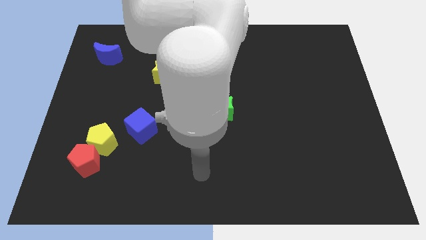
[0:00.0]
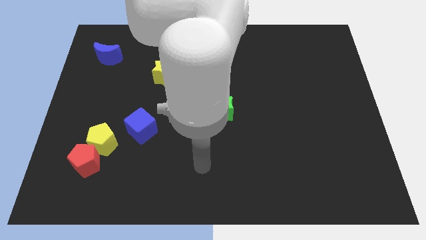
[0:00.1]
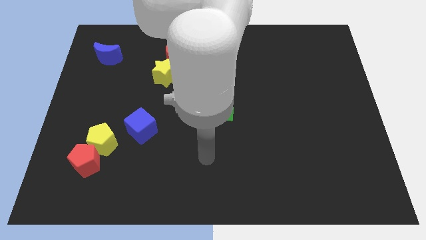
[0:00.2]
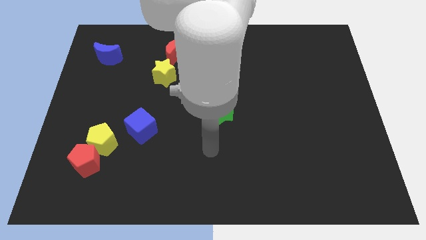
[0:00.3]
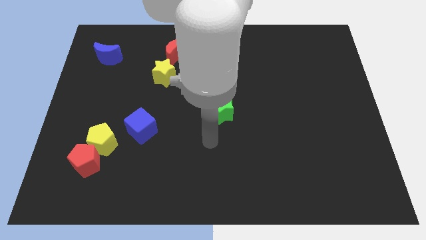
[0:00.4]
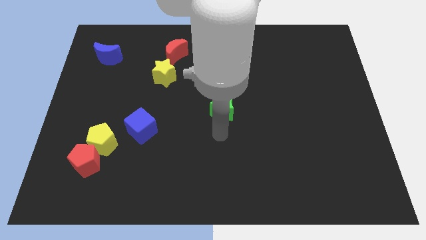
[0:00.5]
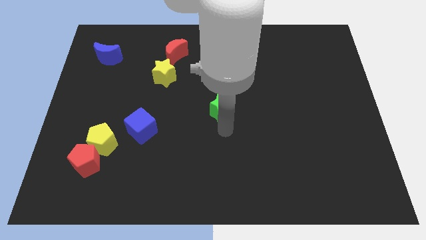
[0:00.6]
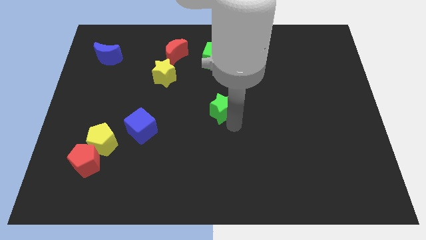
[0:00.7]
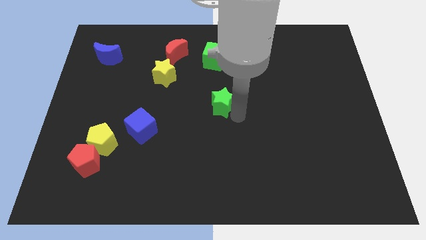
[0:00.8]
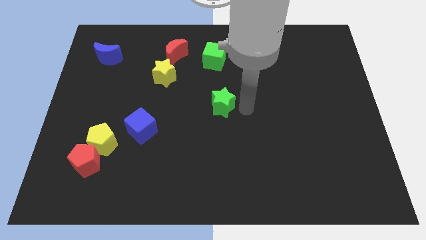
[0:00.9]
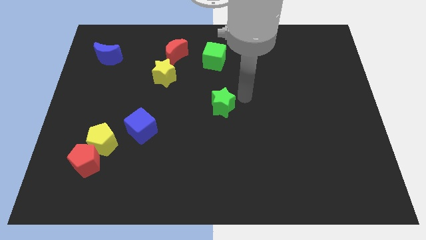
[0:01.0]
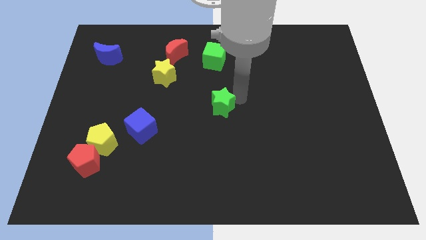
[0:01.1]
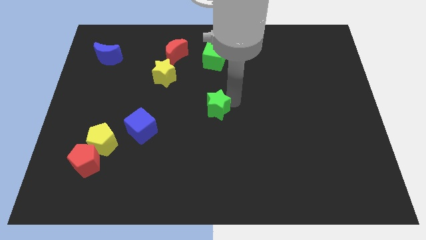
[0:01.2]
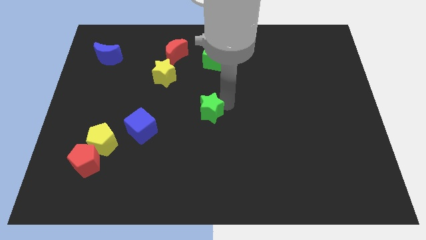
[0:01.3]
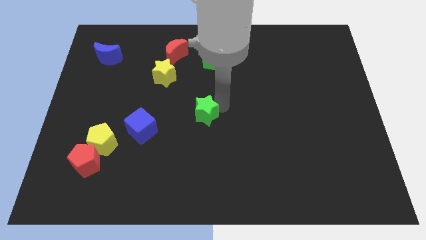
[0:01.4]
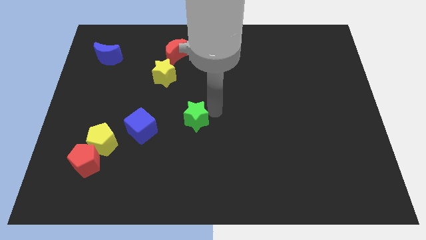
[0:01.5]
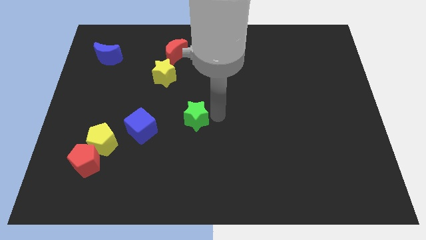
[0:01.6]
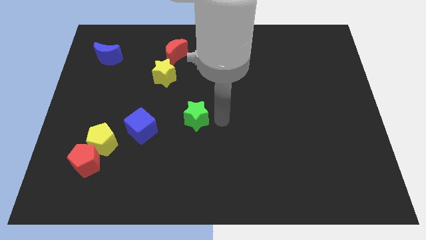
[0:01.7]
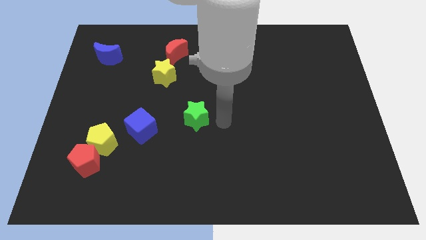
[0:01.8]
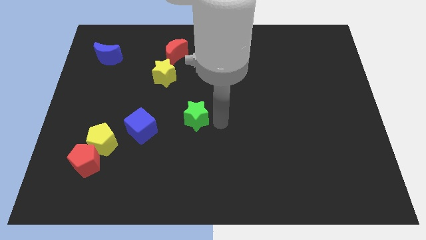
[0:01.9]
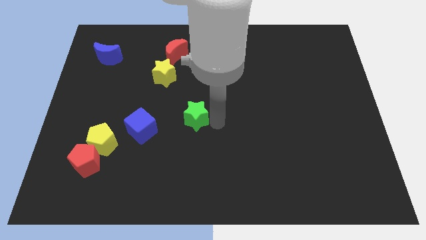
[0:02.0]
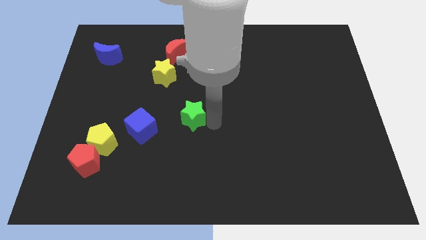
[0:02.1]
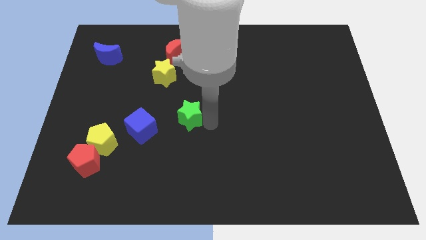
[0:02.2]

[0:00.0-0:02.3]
move the green star a bit to the left

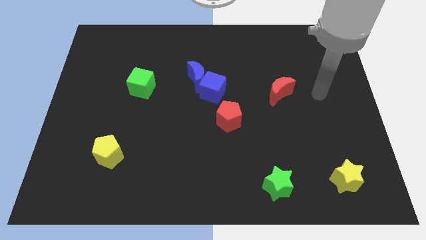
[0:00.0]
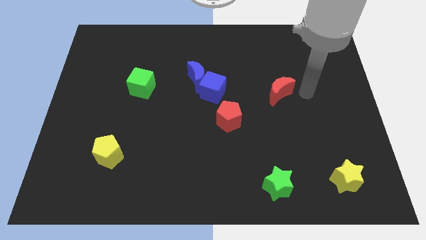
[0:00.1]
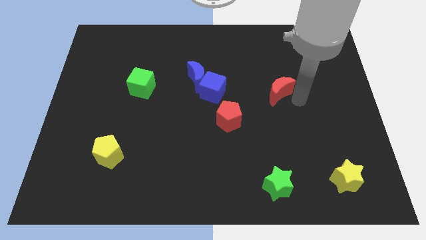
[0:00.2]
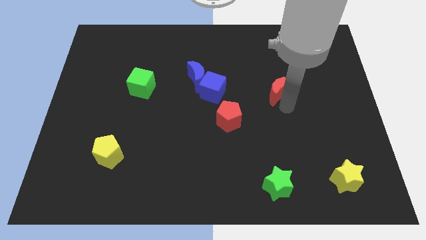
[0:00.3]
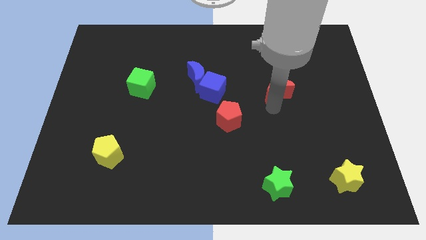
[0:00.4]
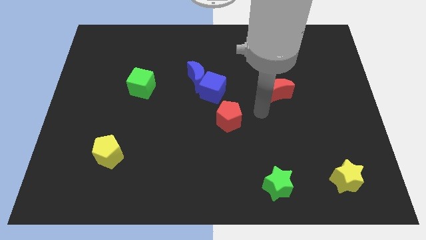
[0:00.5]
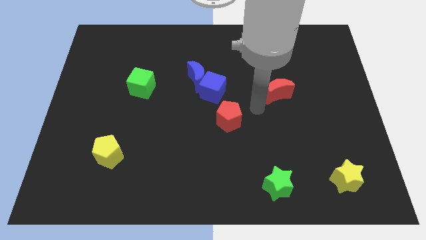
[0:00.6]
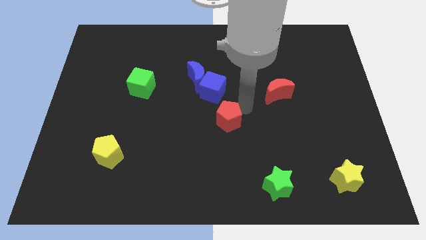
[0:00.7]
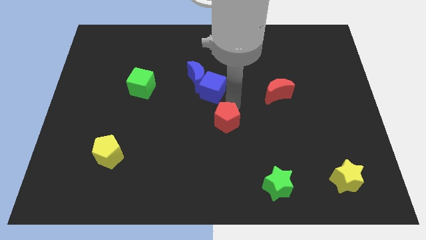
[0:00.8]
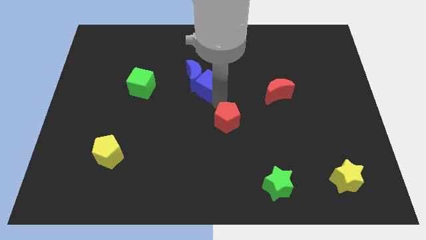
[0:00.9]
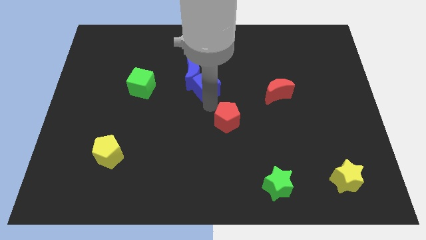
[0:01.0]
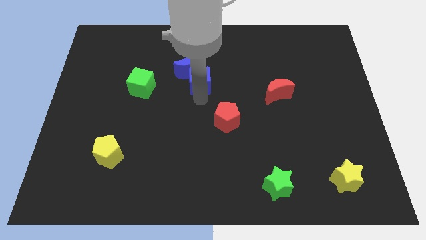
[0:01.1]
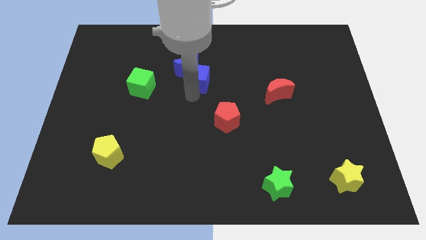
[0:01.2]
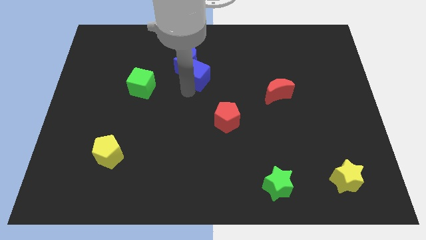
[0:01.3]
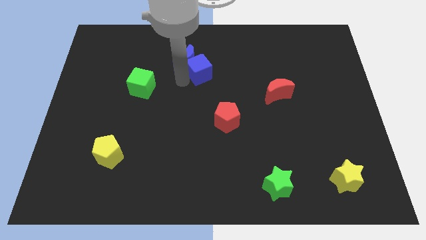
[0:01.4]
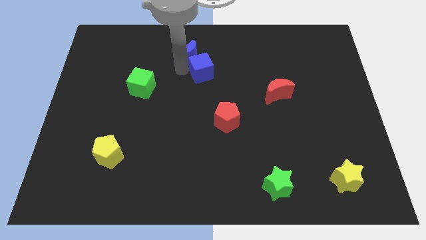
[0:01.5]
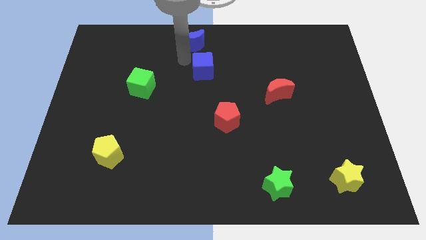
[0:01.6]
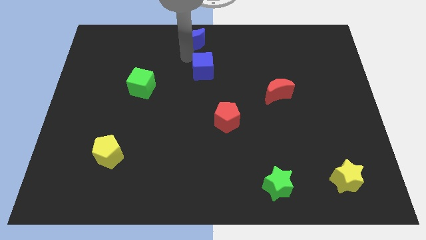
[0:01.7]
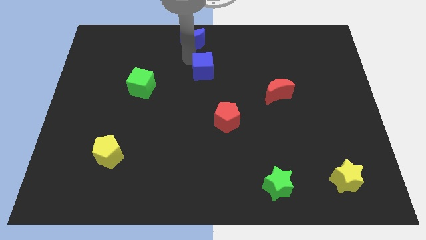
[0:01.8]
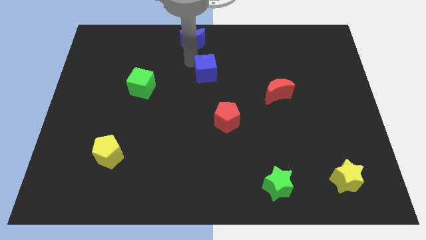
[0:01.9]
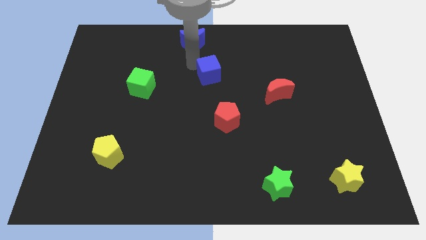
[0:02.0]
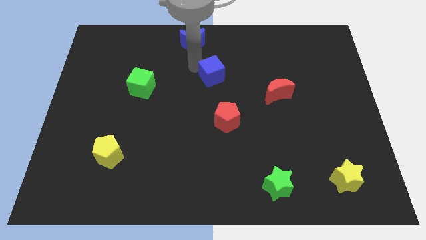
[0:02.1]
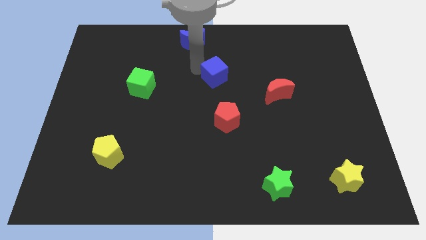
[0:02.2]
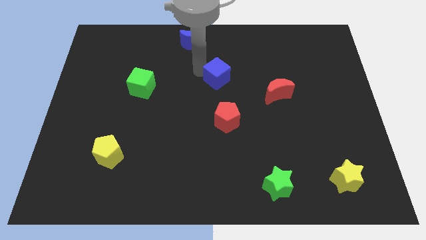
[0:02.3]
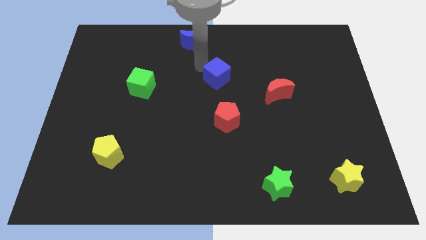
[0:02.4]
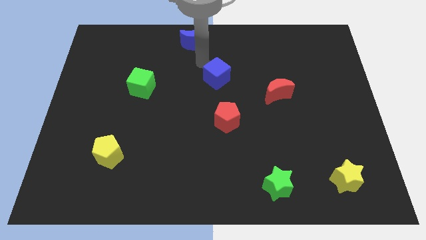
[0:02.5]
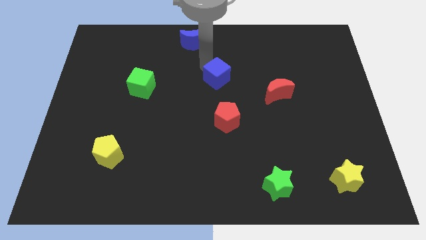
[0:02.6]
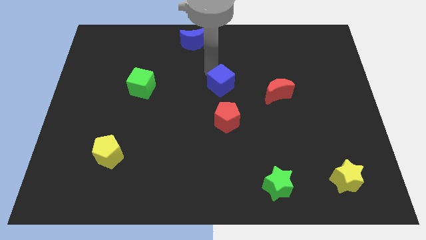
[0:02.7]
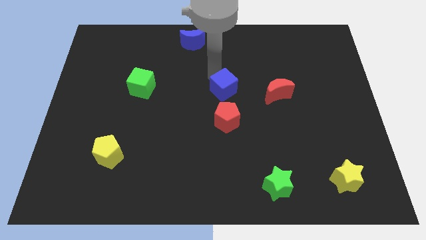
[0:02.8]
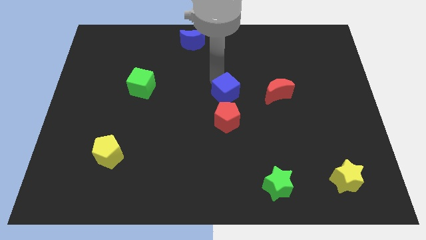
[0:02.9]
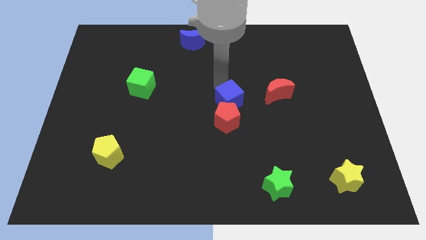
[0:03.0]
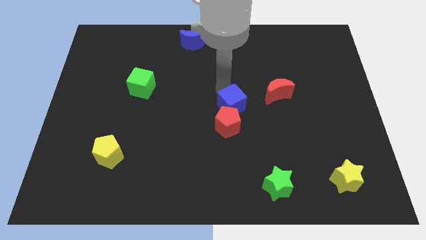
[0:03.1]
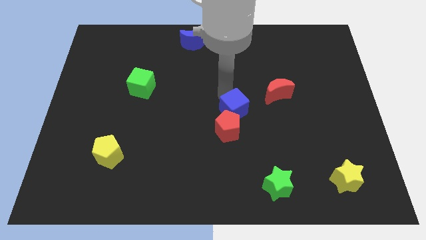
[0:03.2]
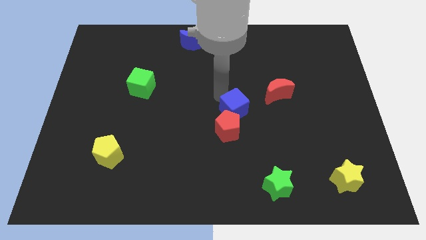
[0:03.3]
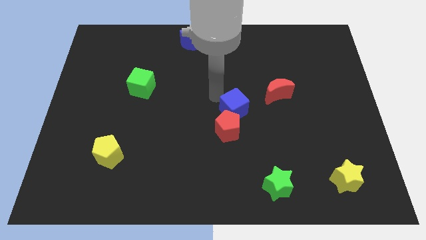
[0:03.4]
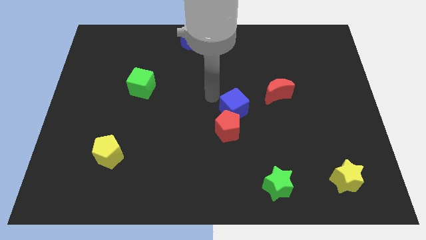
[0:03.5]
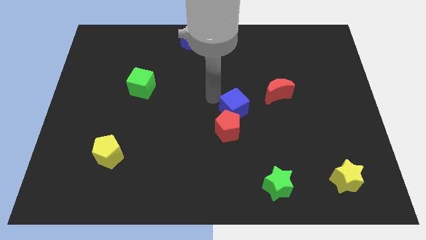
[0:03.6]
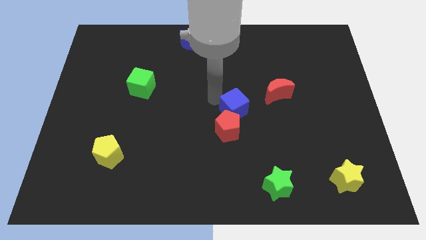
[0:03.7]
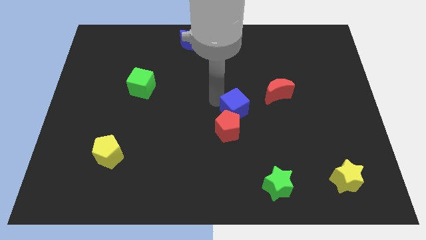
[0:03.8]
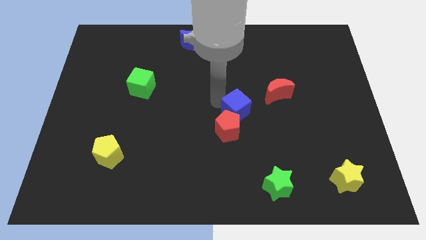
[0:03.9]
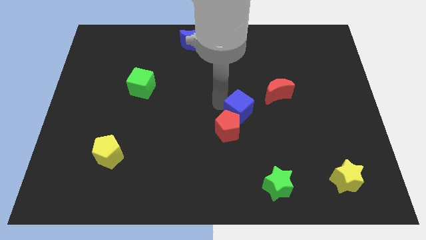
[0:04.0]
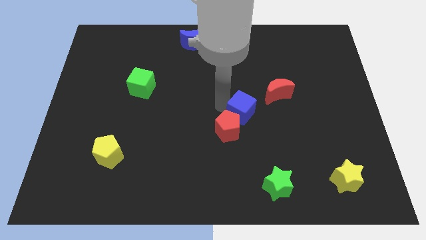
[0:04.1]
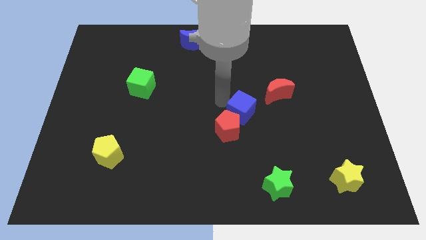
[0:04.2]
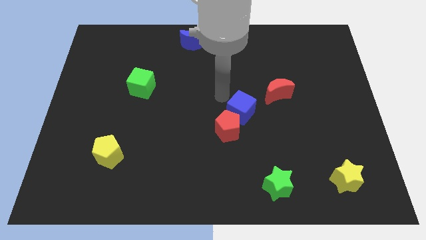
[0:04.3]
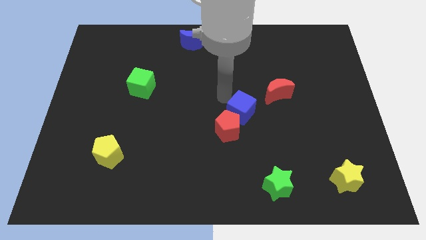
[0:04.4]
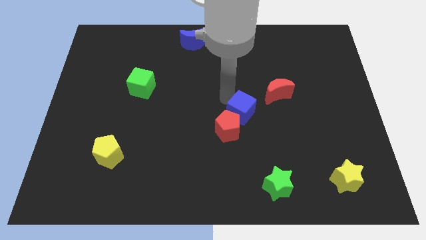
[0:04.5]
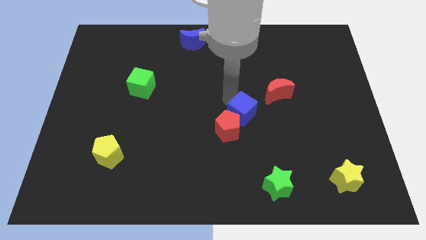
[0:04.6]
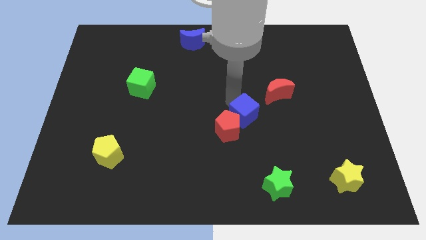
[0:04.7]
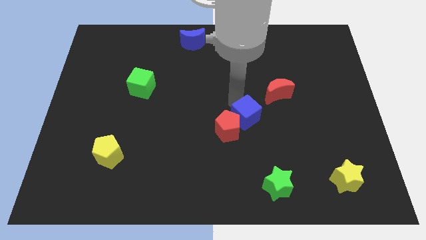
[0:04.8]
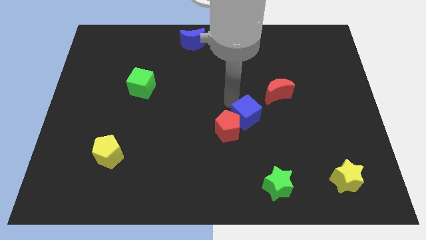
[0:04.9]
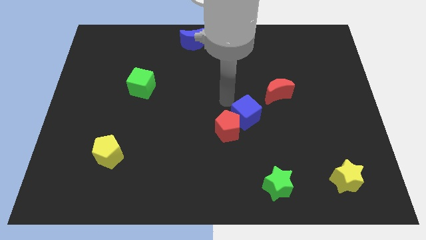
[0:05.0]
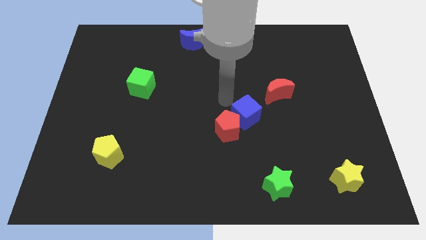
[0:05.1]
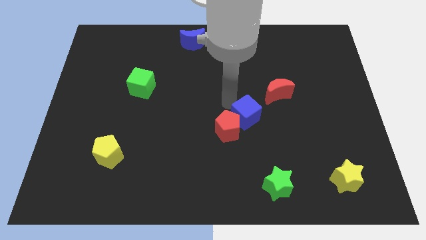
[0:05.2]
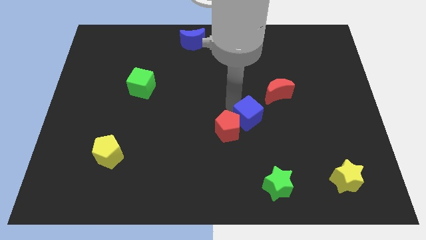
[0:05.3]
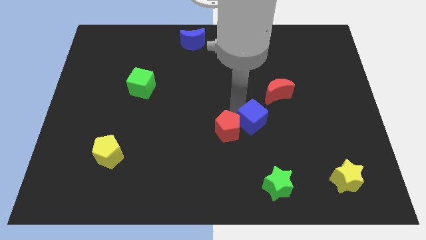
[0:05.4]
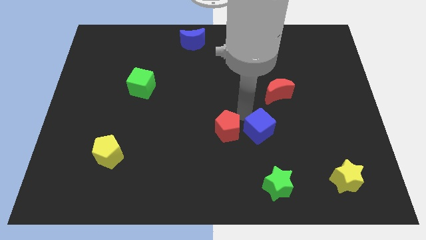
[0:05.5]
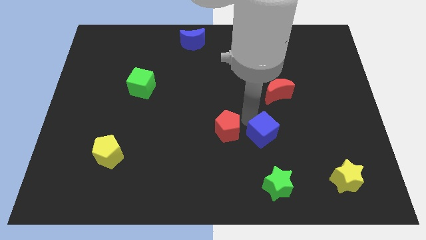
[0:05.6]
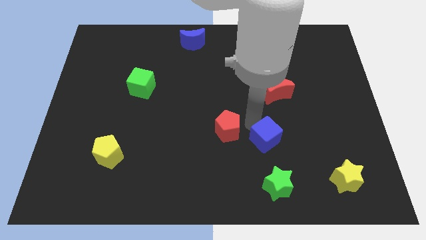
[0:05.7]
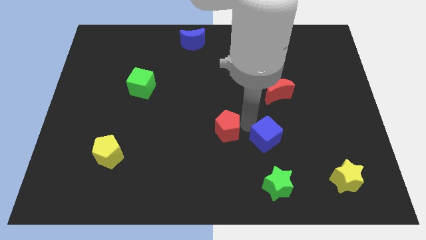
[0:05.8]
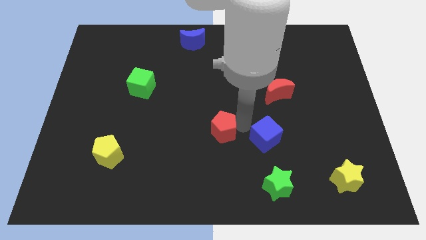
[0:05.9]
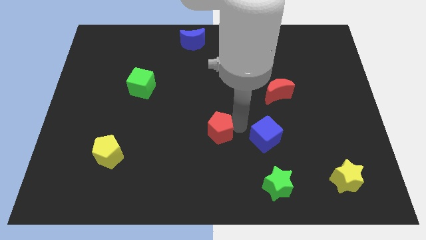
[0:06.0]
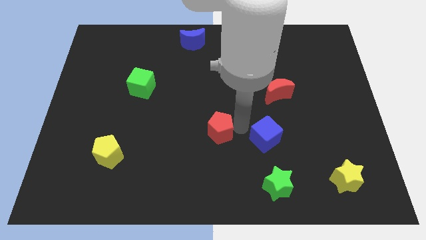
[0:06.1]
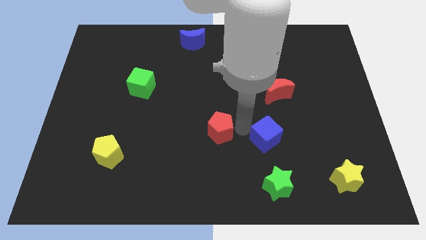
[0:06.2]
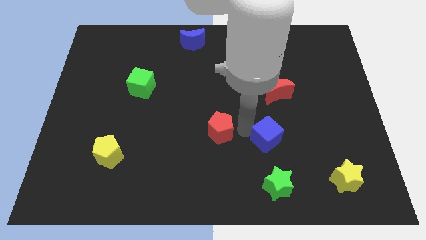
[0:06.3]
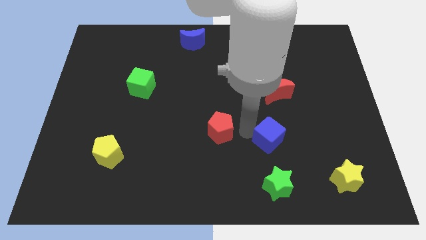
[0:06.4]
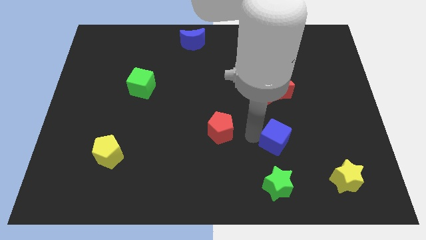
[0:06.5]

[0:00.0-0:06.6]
push the blue cube down and to the right
